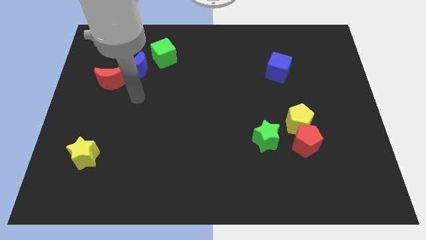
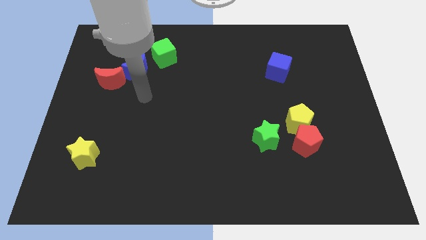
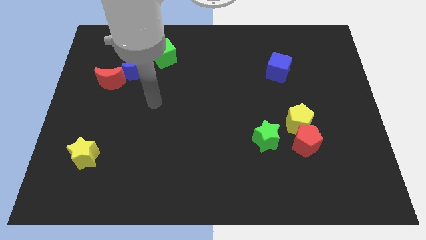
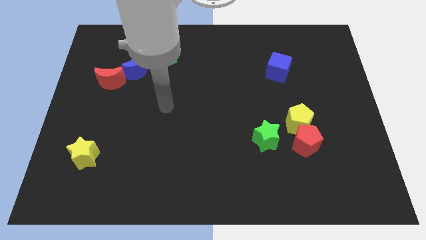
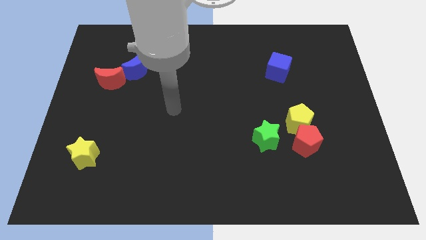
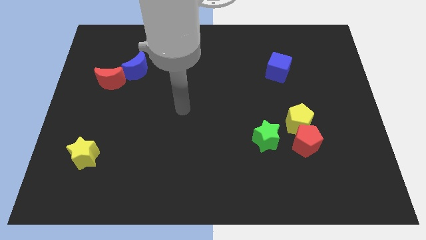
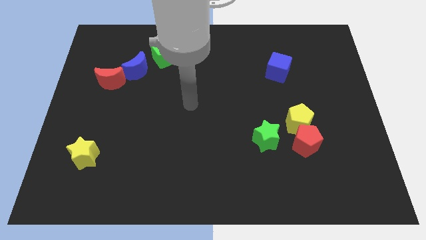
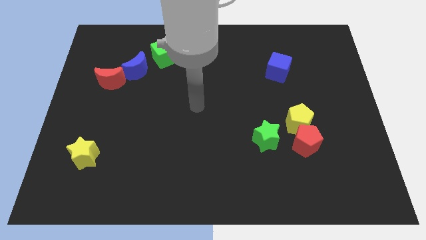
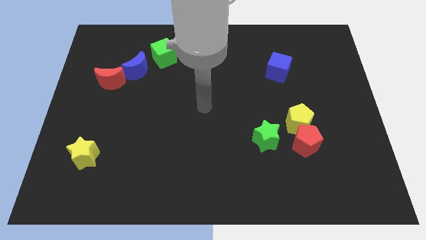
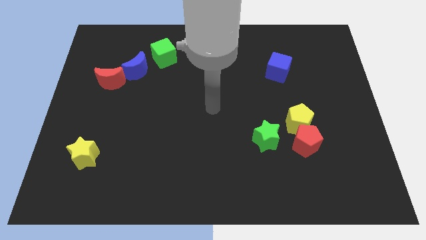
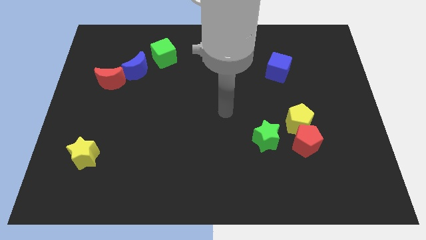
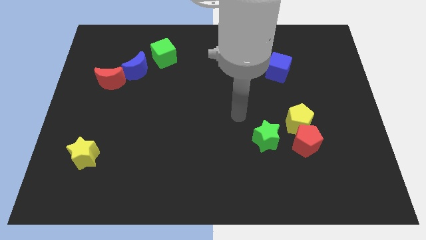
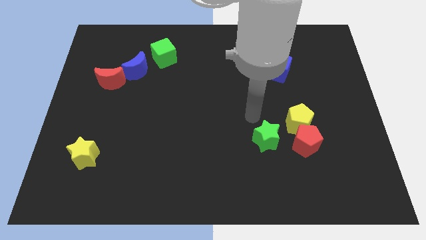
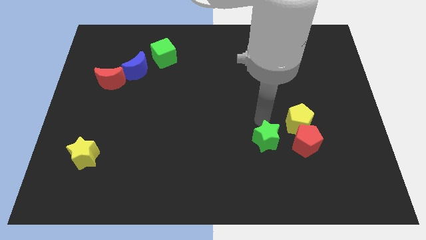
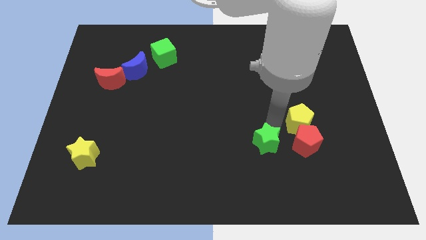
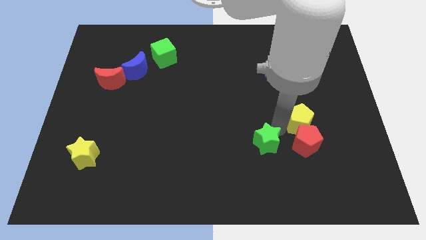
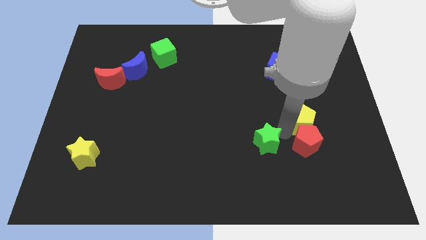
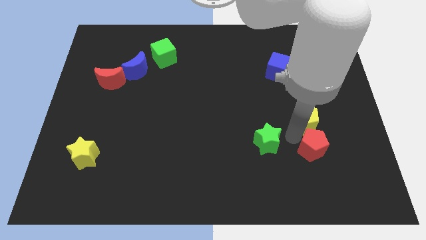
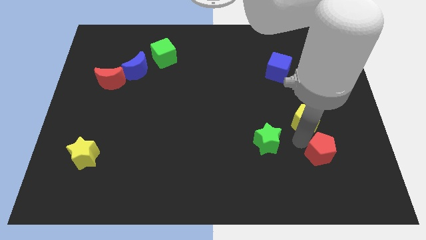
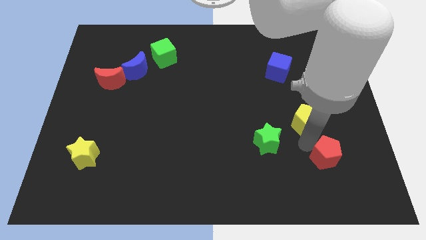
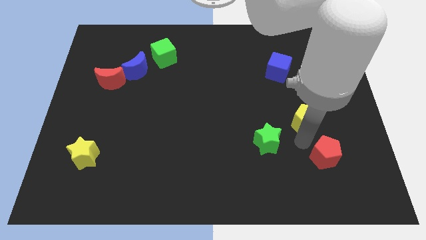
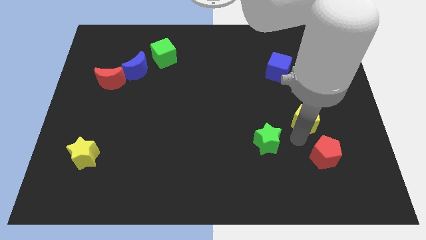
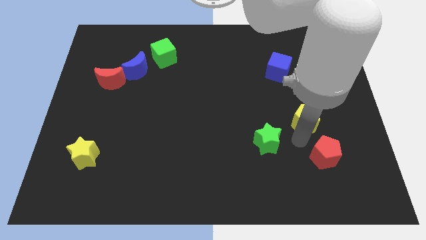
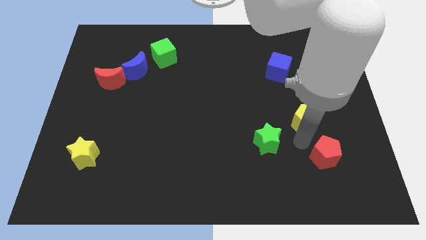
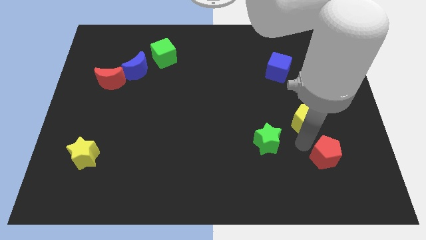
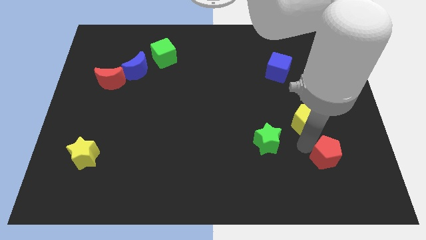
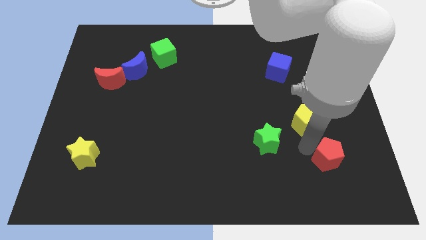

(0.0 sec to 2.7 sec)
move the red pentagon away from the yellow pentagon and green star

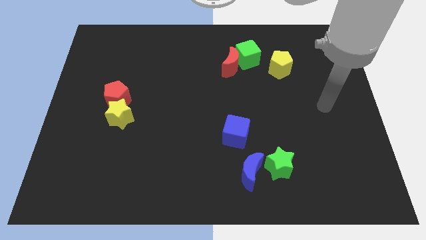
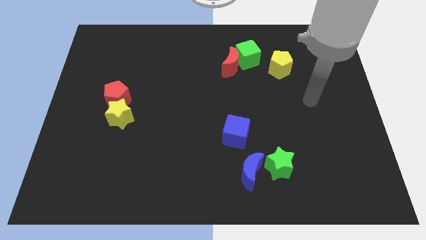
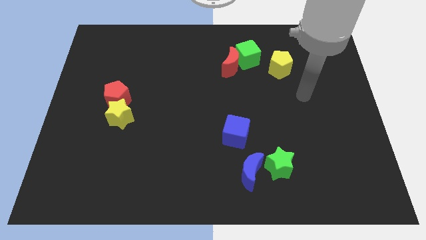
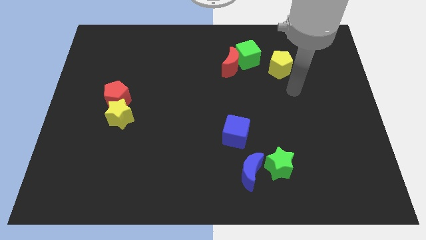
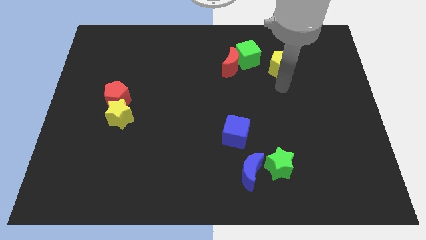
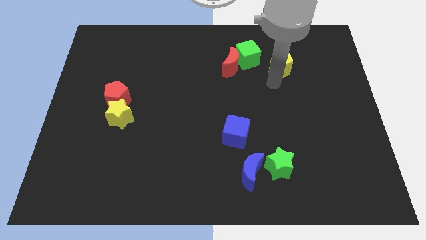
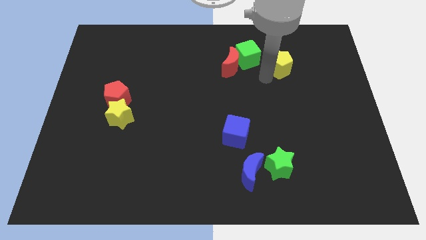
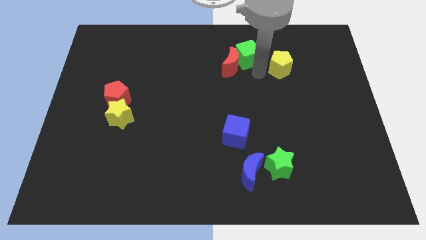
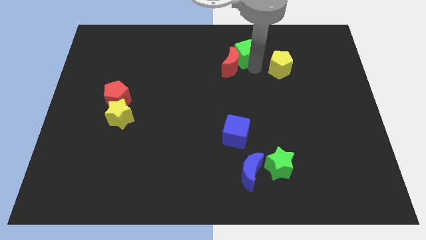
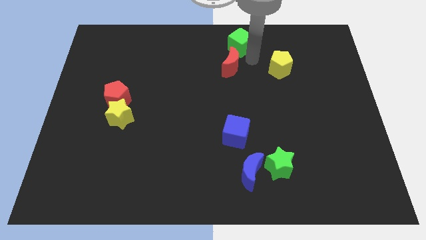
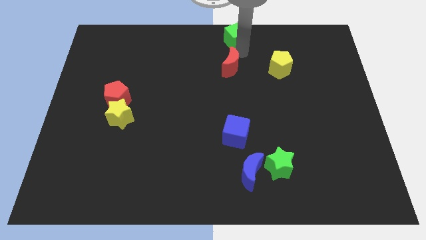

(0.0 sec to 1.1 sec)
separate the red moon from the green cube

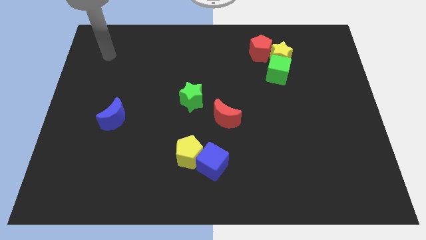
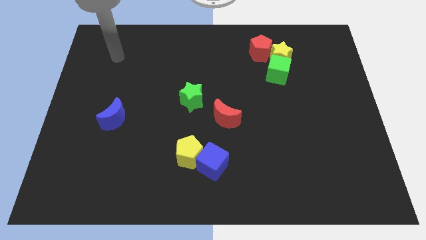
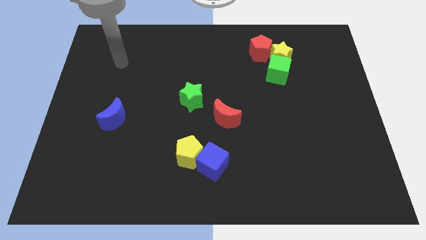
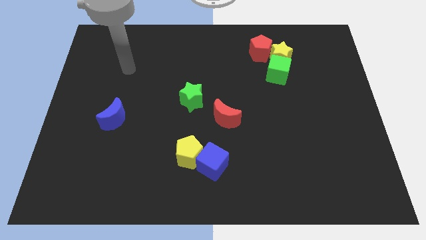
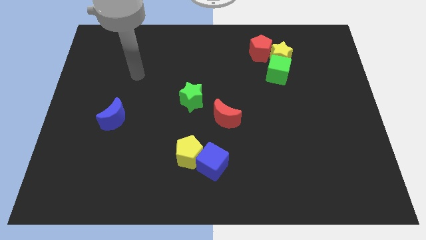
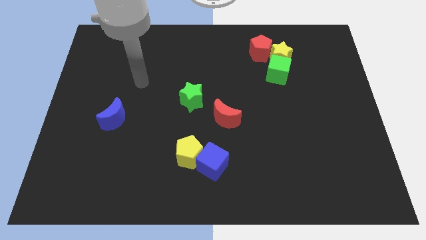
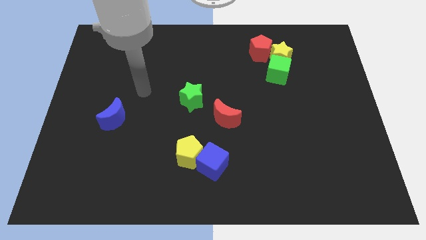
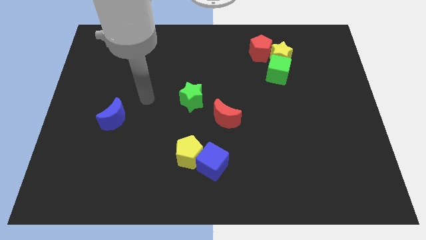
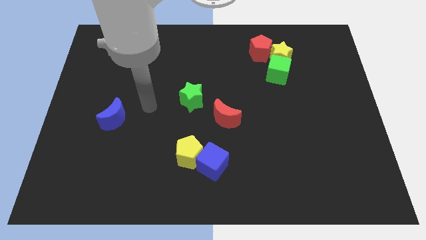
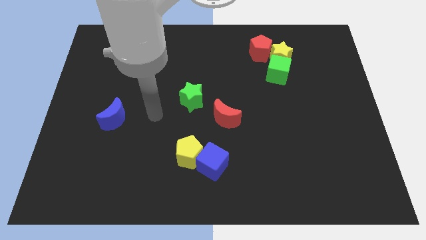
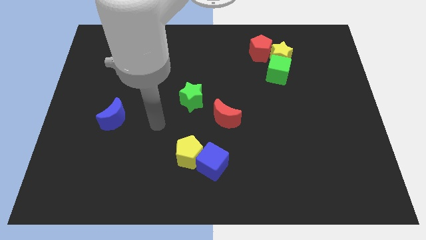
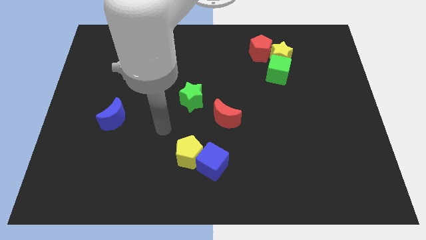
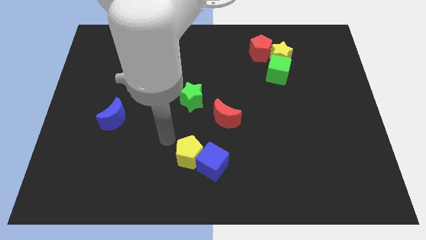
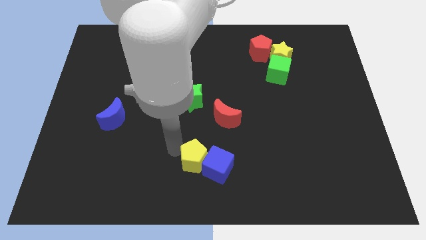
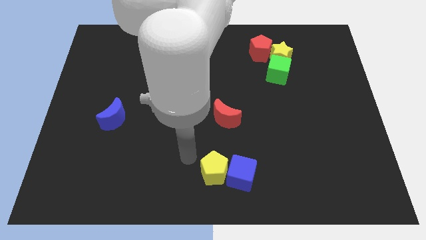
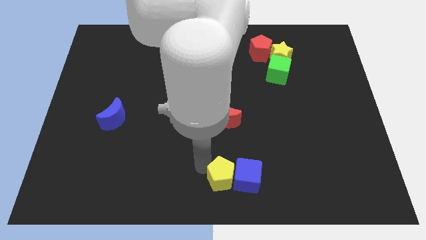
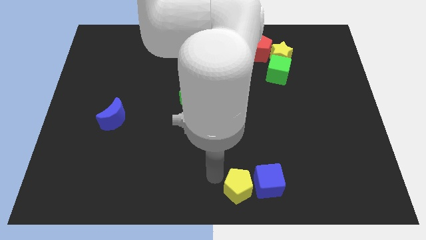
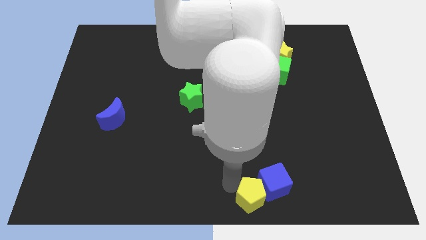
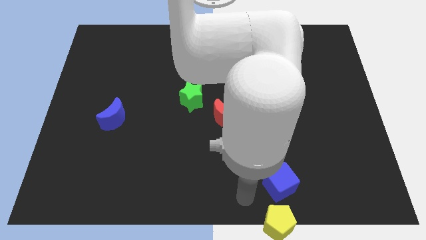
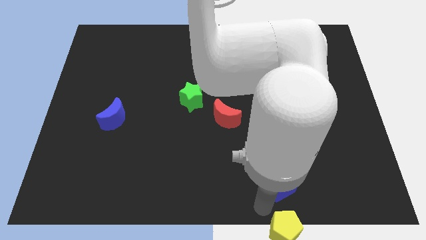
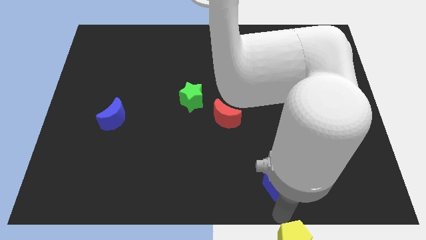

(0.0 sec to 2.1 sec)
separate the blue cube from the yellow pentagon

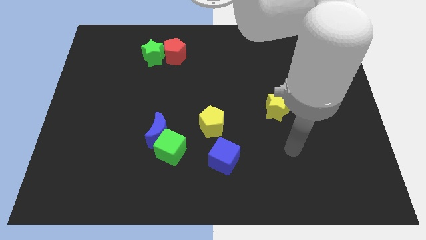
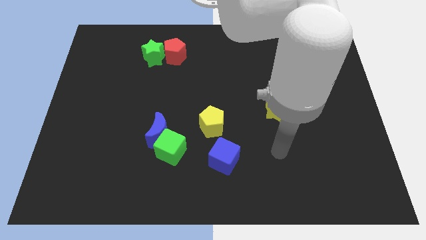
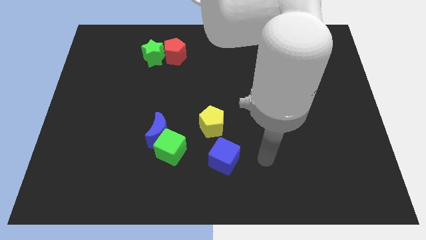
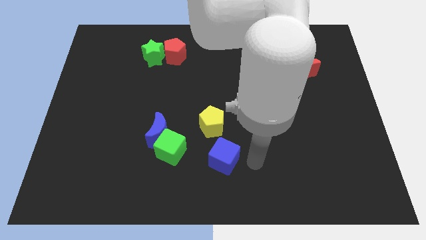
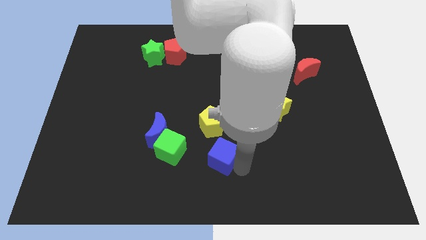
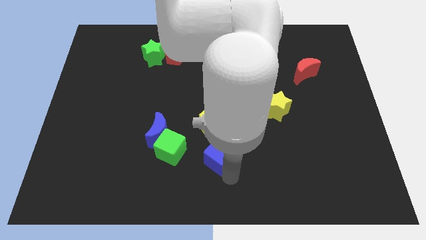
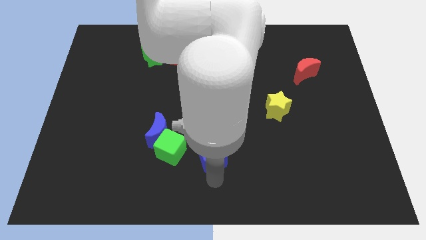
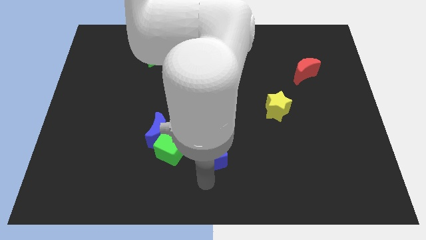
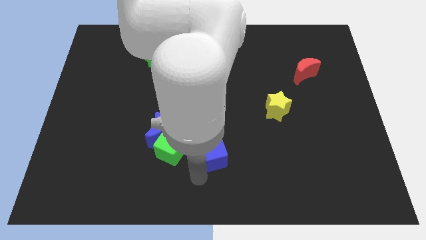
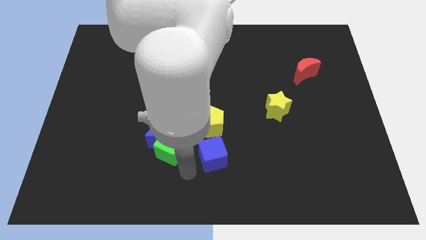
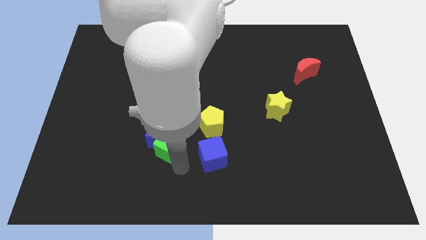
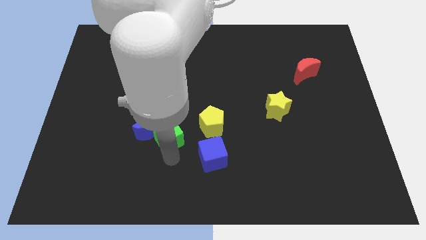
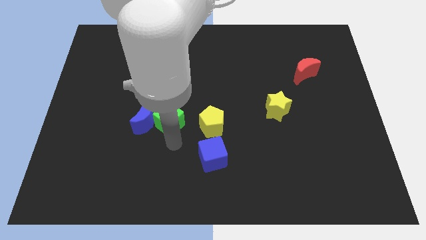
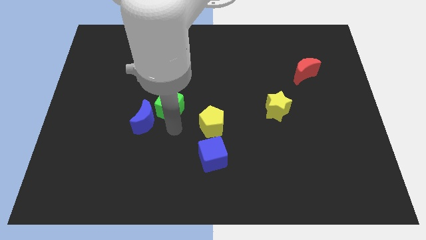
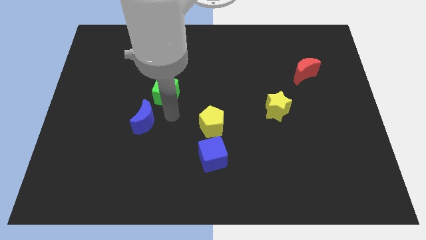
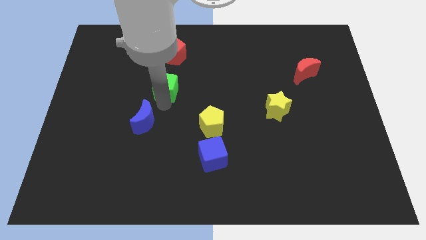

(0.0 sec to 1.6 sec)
move the blue moon away from the green cube

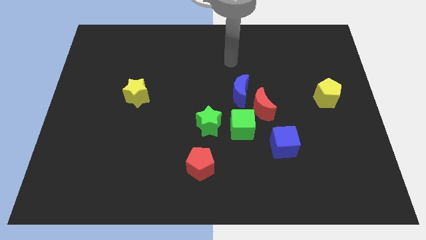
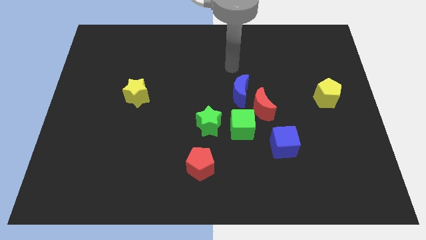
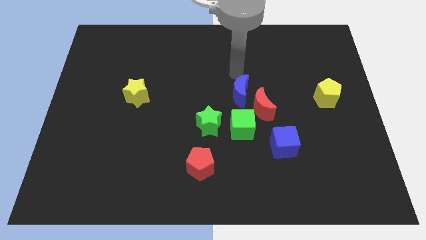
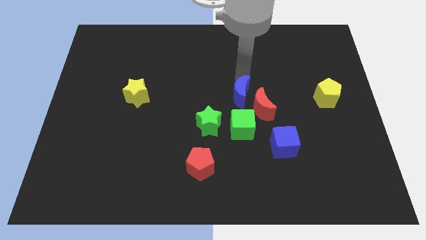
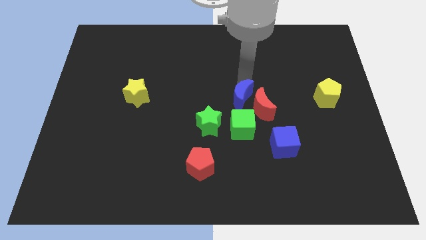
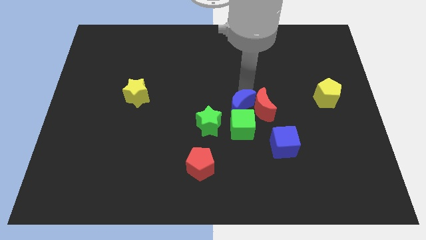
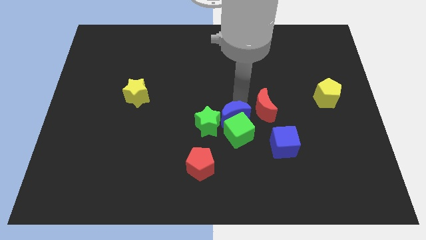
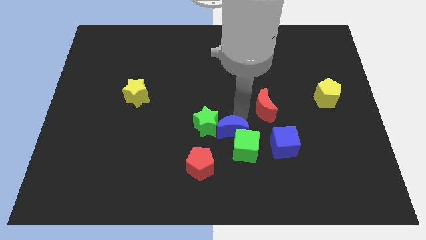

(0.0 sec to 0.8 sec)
separate the red moon from the blue moon and green cube

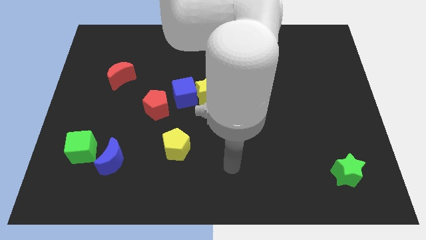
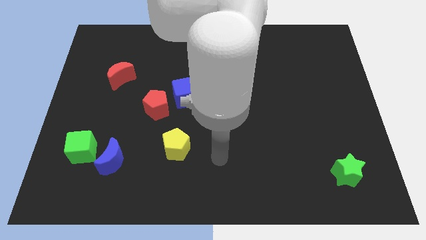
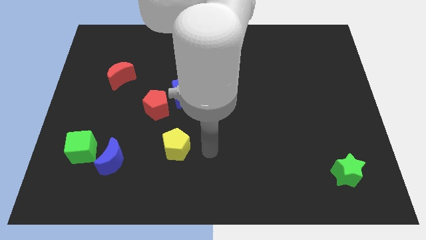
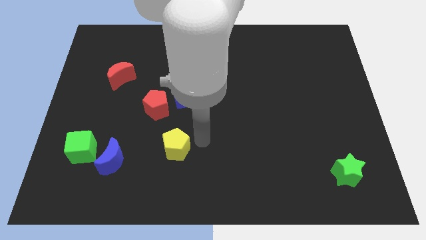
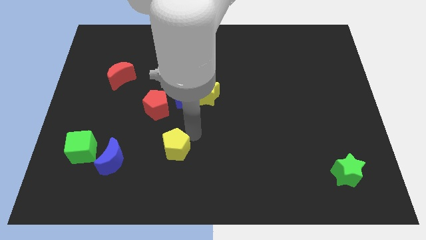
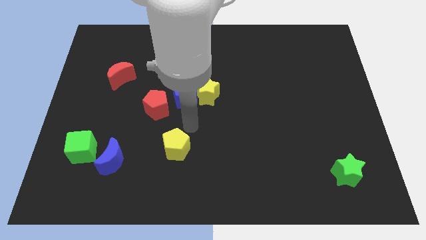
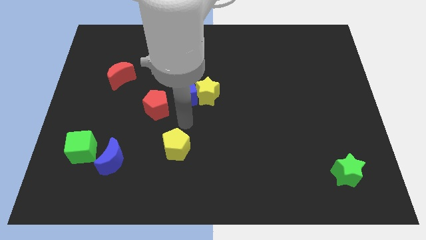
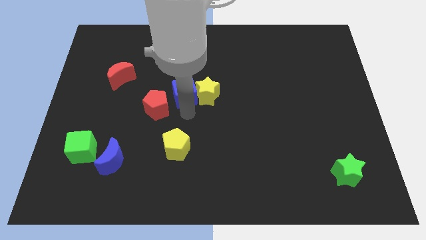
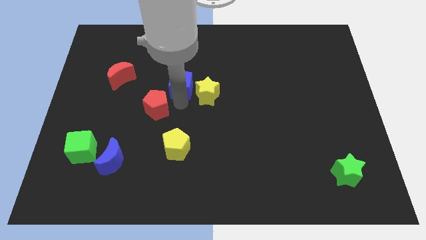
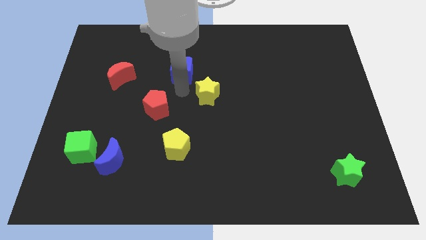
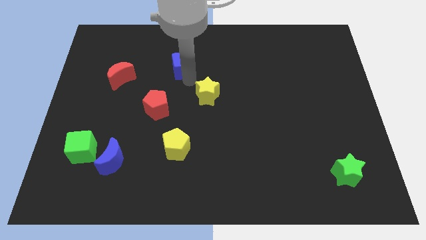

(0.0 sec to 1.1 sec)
pull the yellow star apart from the blue cube
